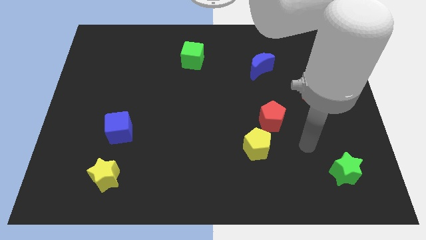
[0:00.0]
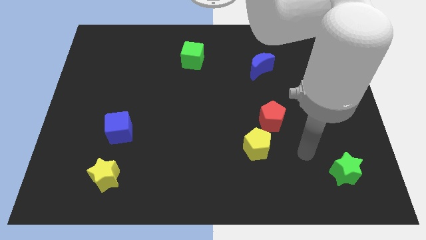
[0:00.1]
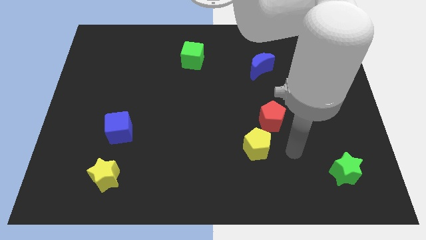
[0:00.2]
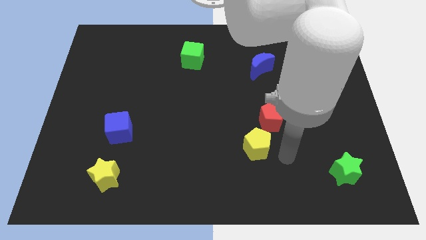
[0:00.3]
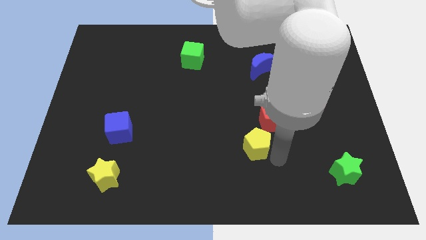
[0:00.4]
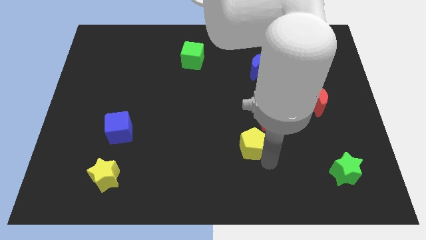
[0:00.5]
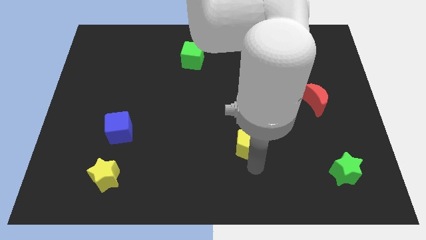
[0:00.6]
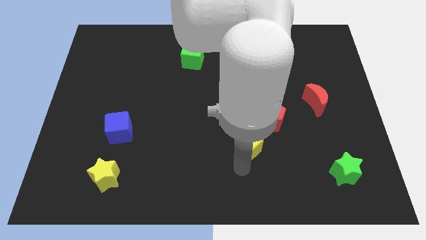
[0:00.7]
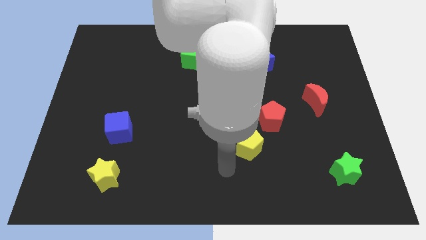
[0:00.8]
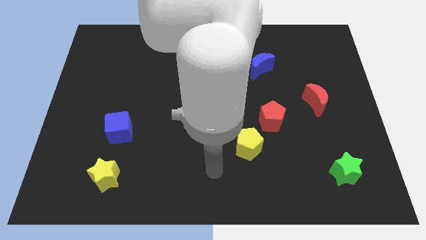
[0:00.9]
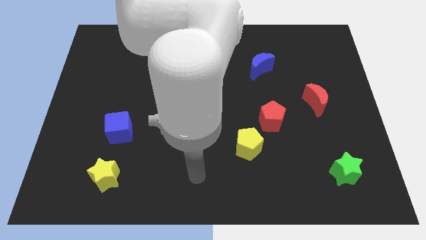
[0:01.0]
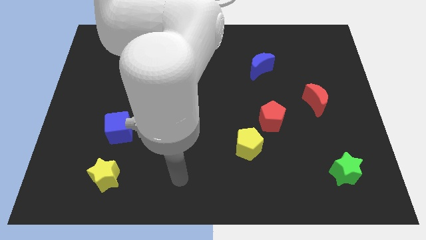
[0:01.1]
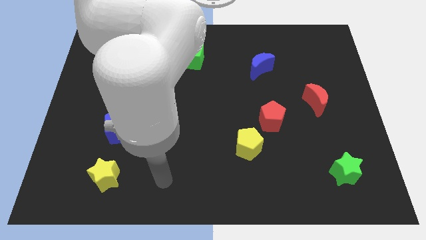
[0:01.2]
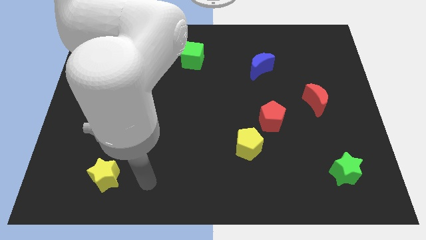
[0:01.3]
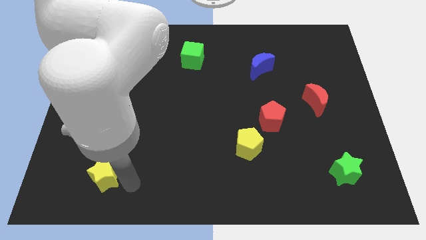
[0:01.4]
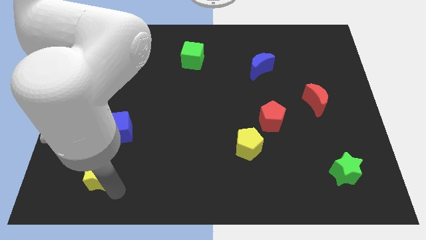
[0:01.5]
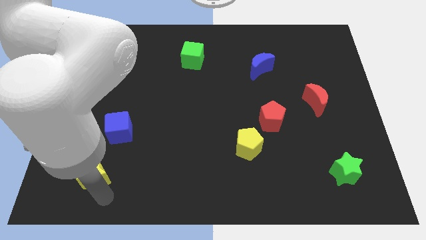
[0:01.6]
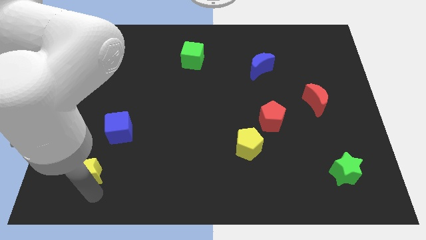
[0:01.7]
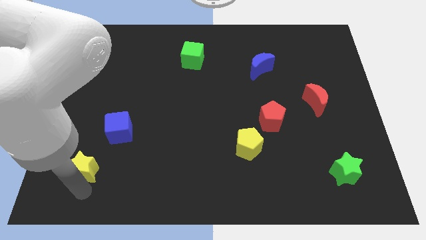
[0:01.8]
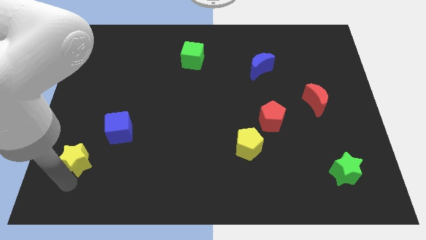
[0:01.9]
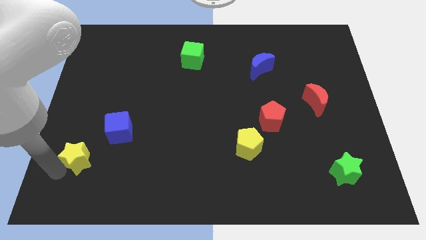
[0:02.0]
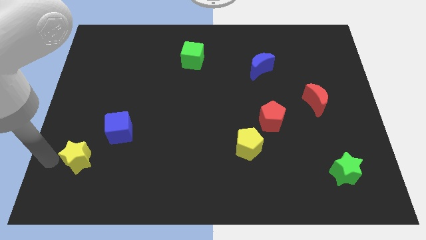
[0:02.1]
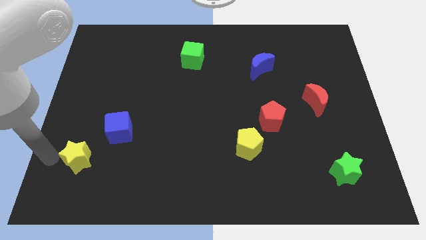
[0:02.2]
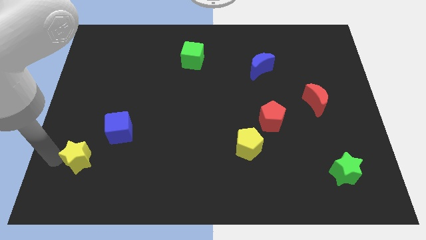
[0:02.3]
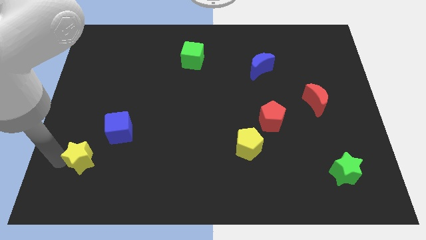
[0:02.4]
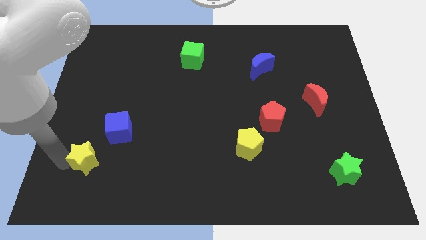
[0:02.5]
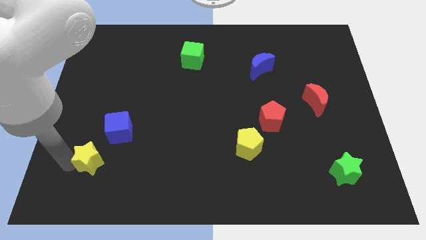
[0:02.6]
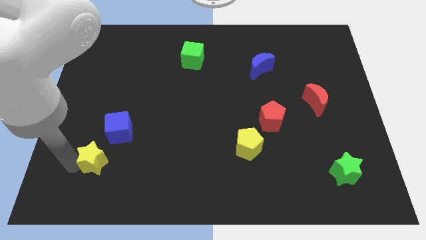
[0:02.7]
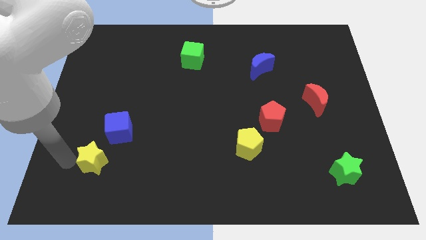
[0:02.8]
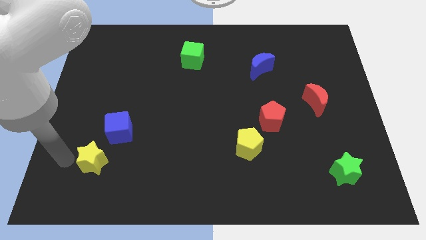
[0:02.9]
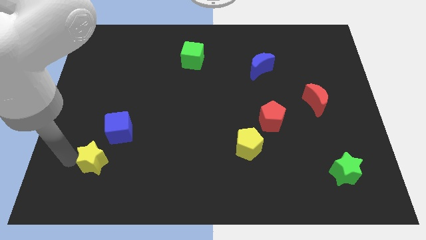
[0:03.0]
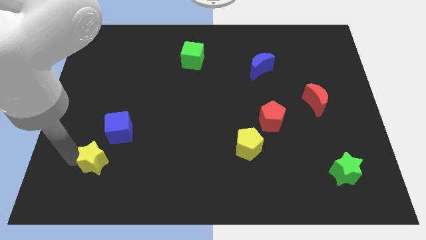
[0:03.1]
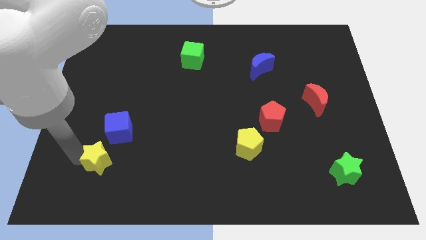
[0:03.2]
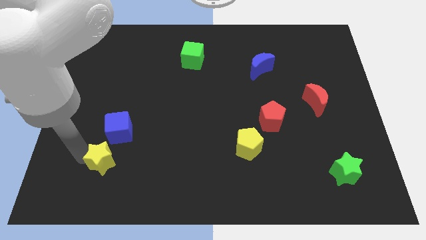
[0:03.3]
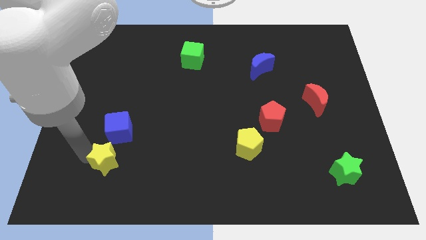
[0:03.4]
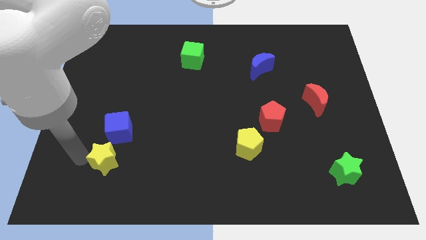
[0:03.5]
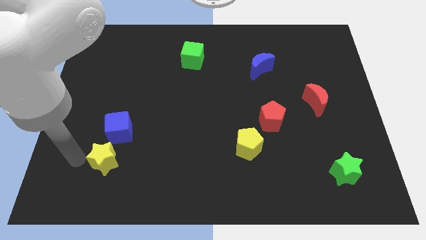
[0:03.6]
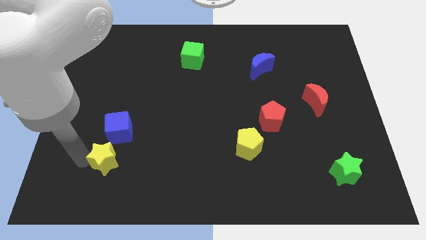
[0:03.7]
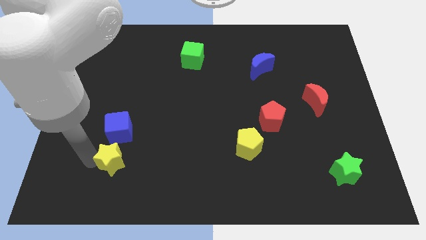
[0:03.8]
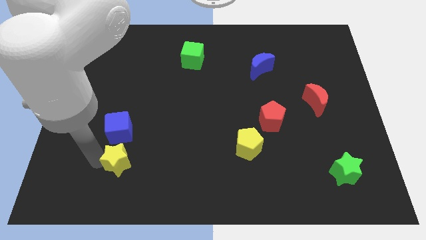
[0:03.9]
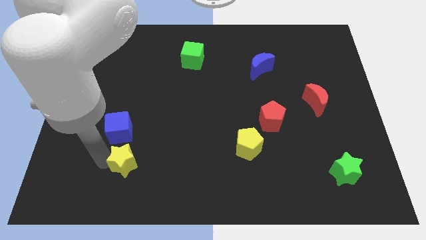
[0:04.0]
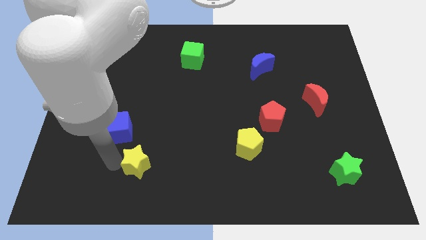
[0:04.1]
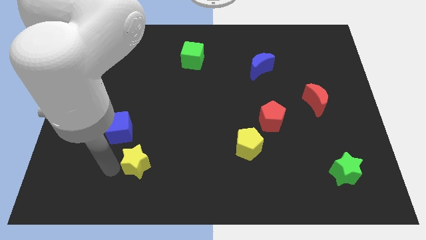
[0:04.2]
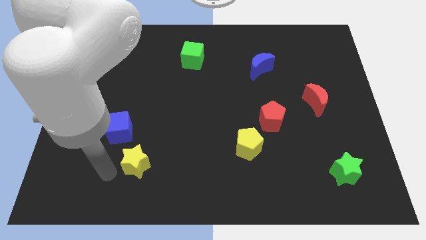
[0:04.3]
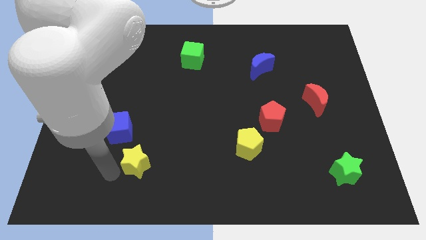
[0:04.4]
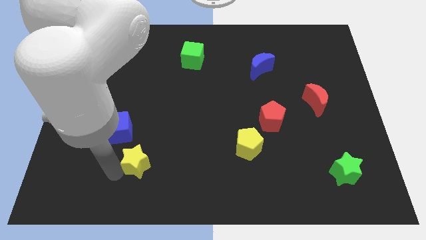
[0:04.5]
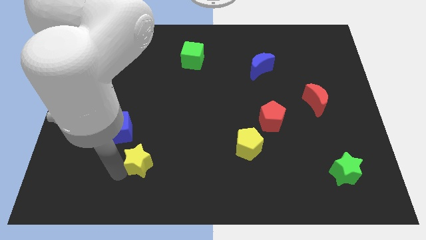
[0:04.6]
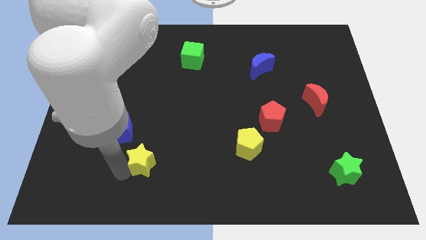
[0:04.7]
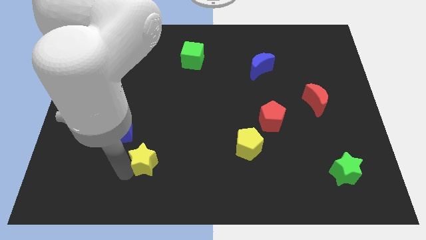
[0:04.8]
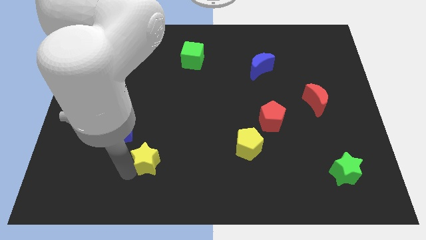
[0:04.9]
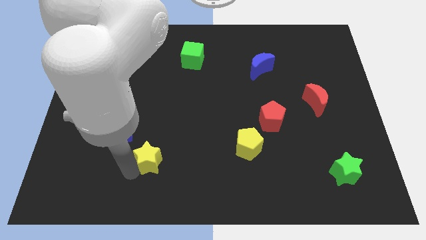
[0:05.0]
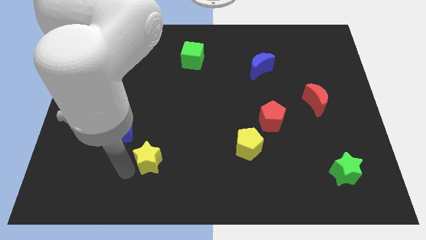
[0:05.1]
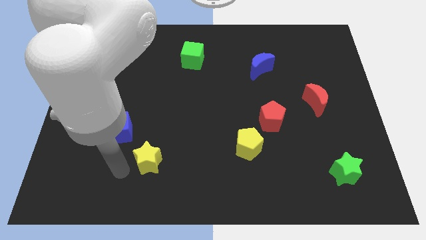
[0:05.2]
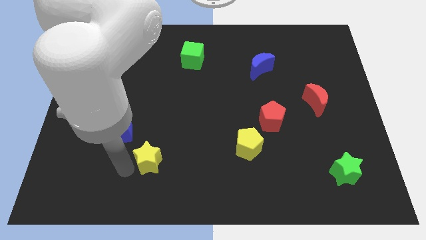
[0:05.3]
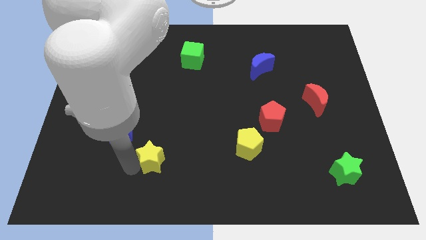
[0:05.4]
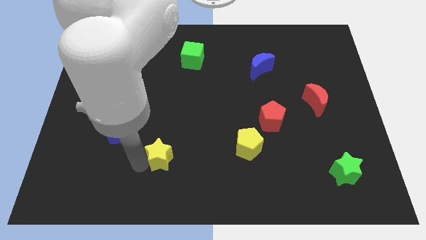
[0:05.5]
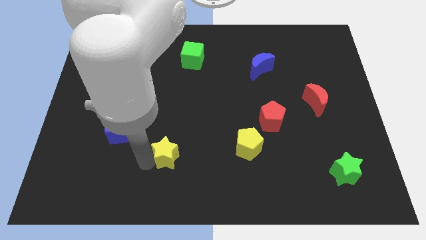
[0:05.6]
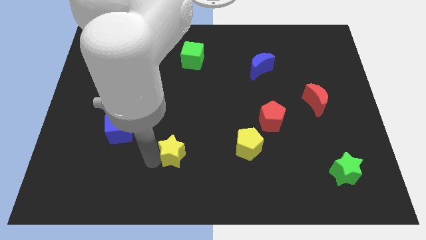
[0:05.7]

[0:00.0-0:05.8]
slide the yellow star to the left side of the yellow pentagon

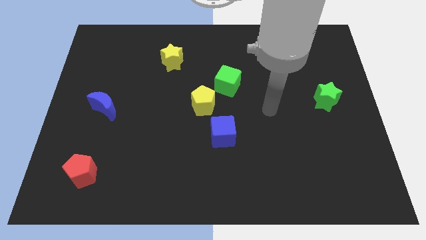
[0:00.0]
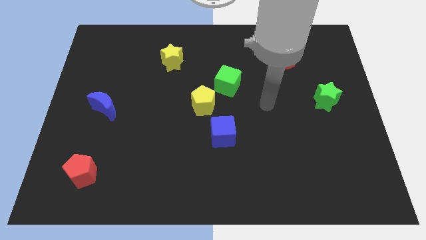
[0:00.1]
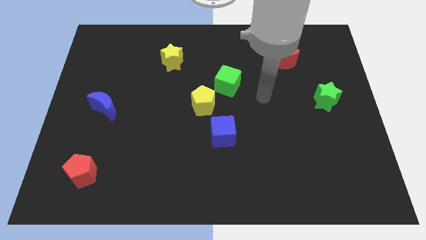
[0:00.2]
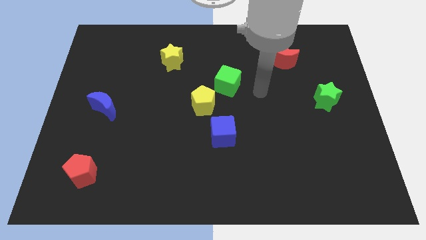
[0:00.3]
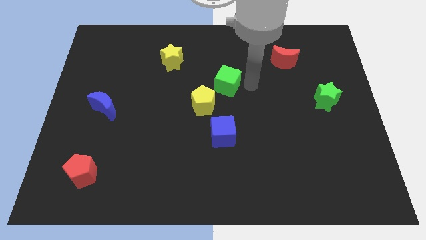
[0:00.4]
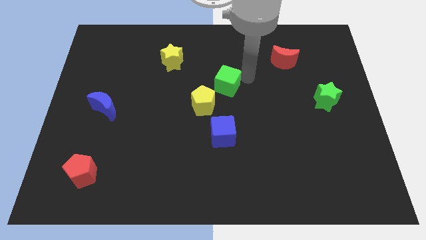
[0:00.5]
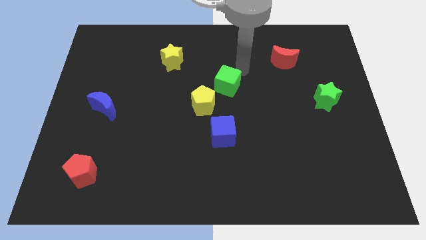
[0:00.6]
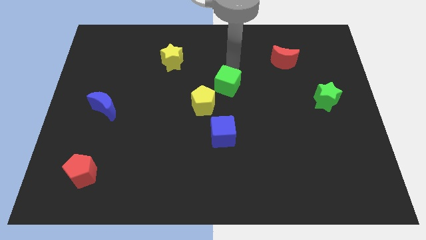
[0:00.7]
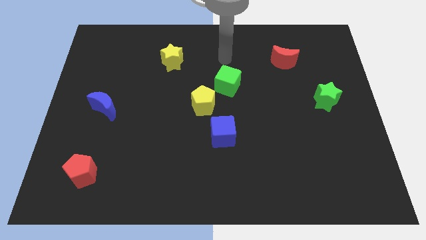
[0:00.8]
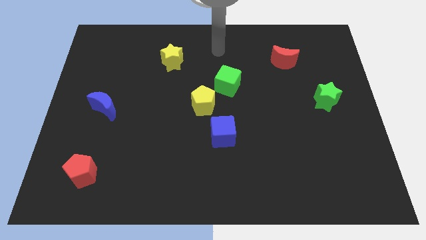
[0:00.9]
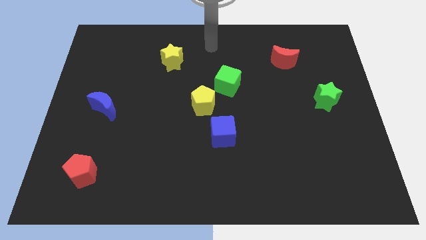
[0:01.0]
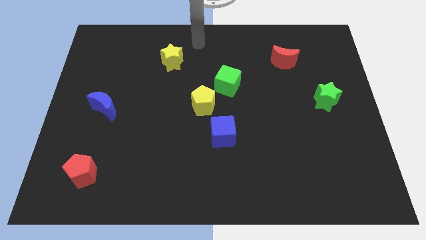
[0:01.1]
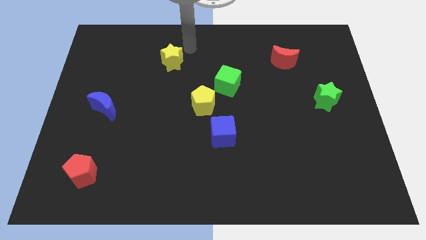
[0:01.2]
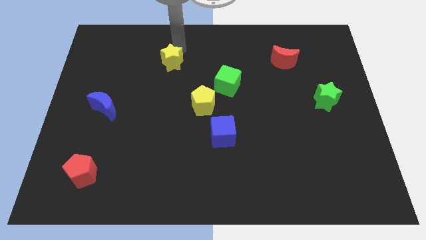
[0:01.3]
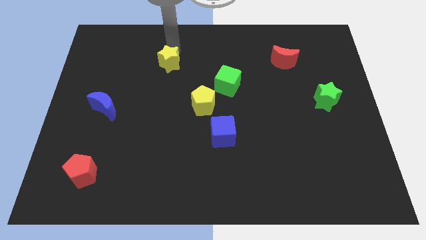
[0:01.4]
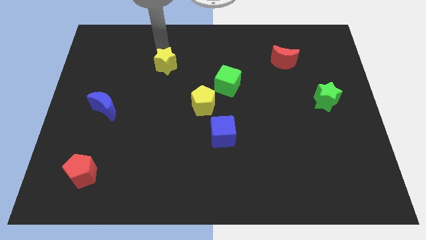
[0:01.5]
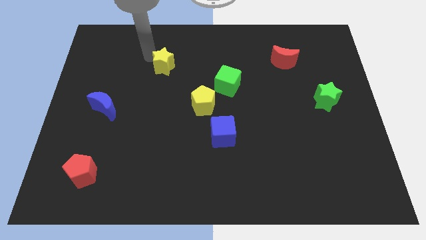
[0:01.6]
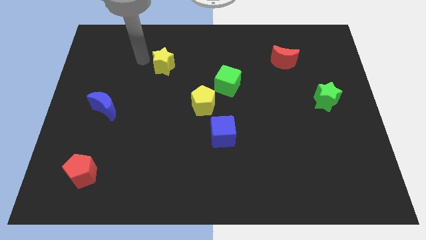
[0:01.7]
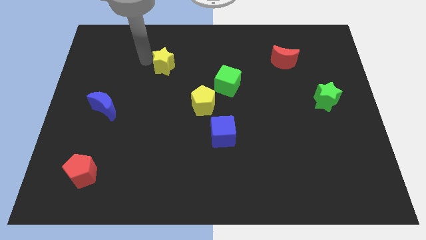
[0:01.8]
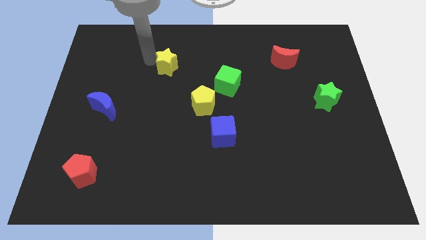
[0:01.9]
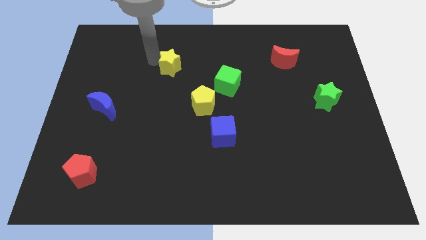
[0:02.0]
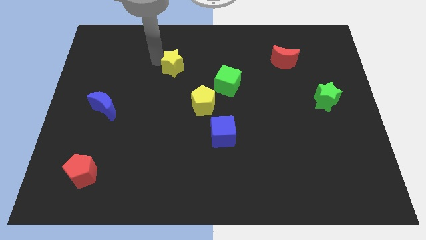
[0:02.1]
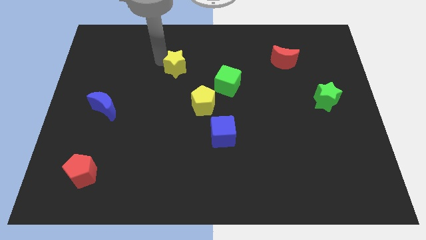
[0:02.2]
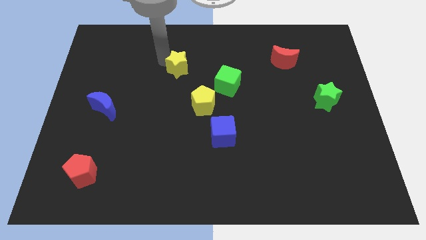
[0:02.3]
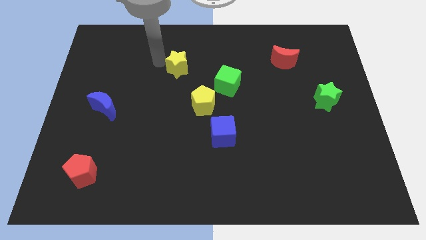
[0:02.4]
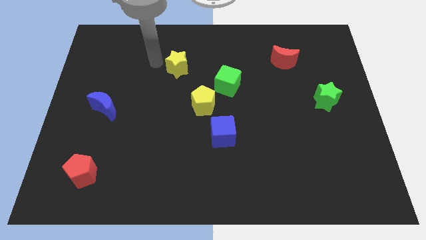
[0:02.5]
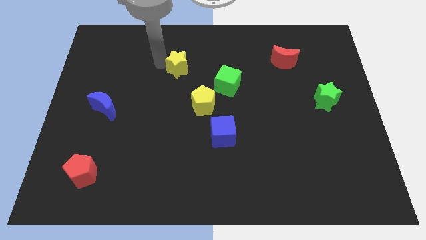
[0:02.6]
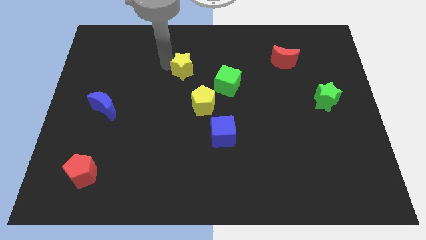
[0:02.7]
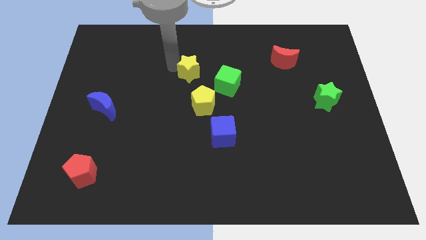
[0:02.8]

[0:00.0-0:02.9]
put the yellow star above the yellow pentagon
